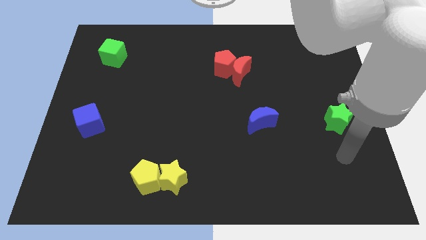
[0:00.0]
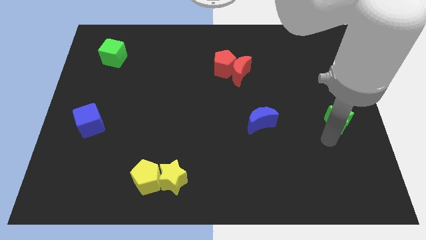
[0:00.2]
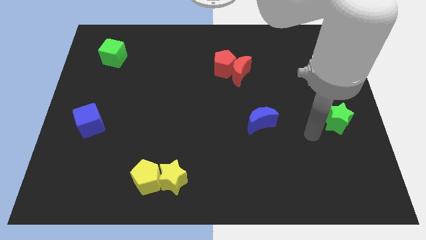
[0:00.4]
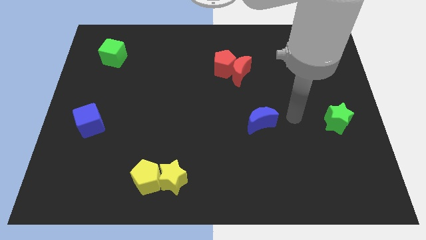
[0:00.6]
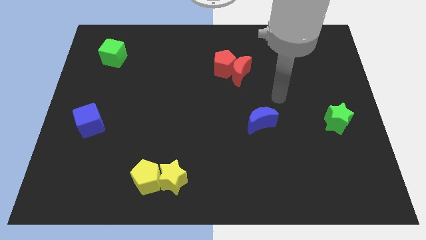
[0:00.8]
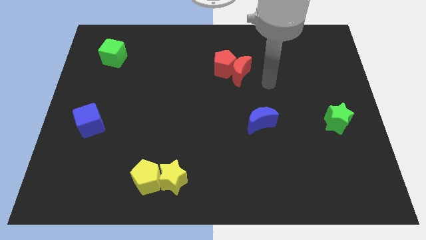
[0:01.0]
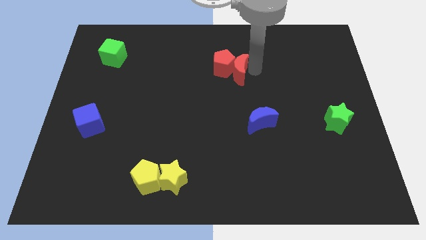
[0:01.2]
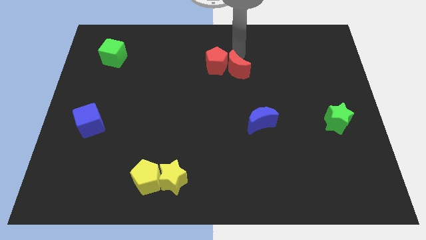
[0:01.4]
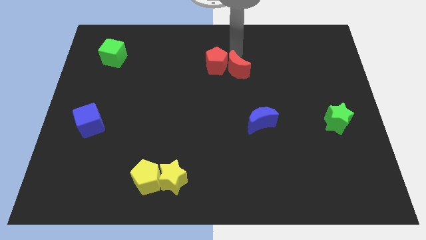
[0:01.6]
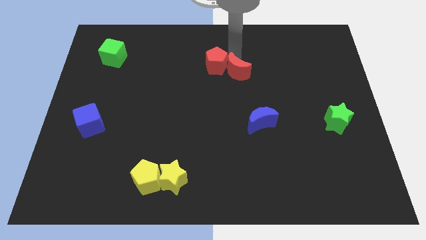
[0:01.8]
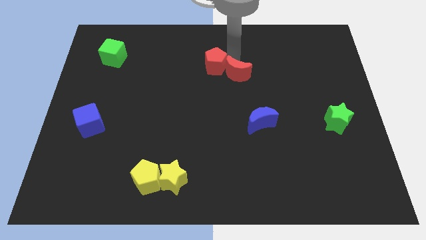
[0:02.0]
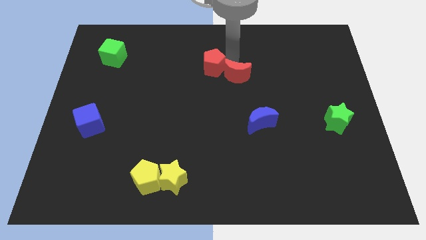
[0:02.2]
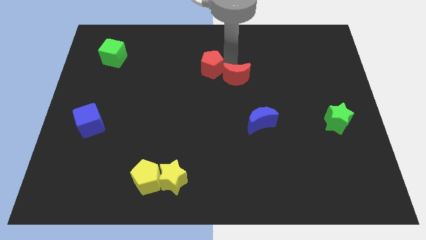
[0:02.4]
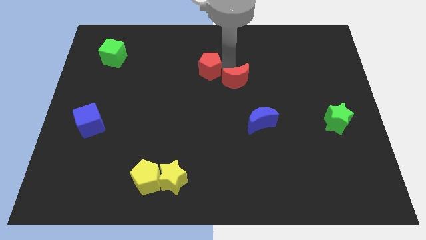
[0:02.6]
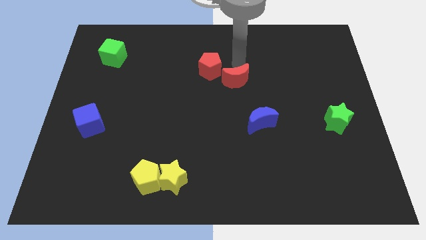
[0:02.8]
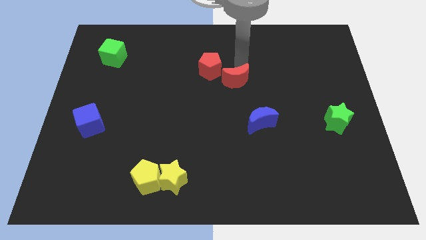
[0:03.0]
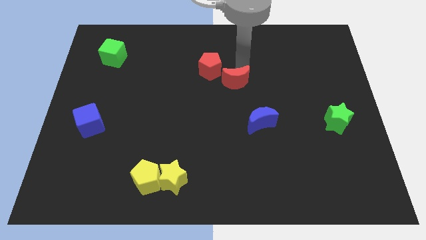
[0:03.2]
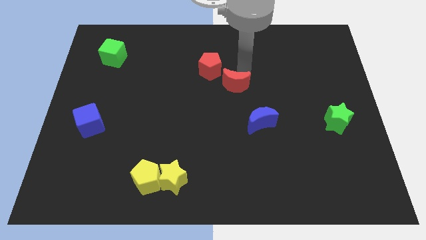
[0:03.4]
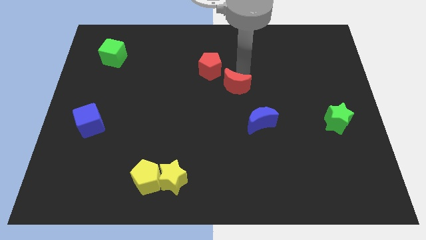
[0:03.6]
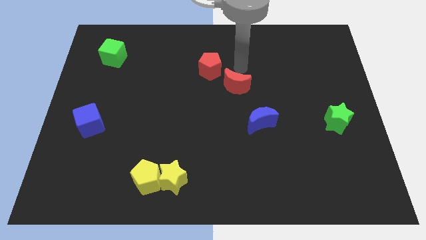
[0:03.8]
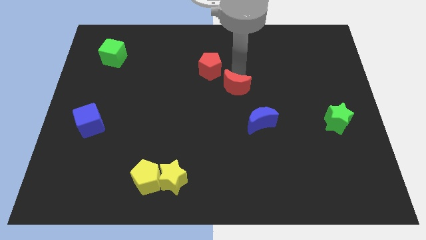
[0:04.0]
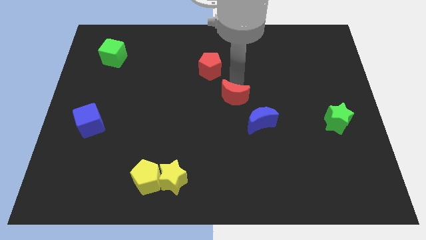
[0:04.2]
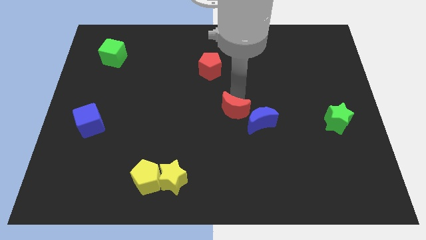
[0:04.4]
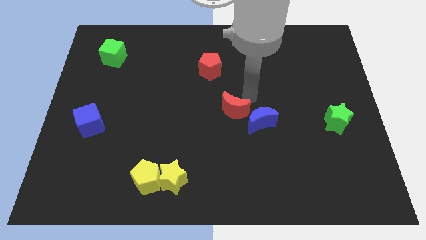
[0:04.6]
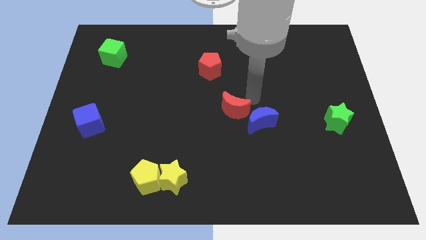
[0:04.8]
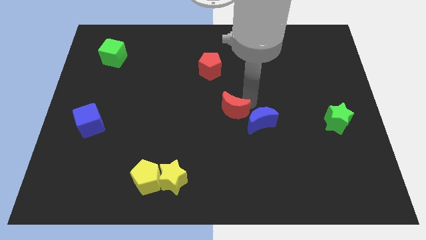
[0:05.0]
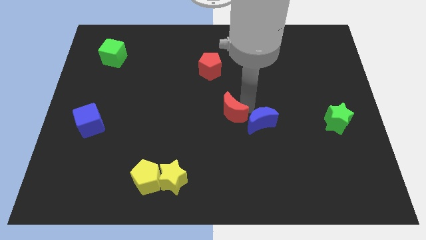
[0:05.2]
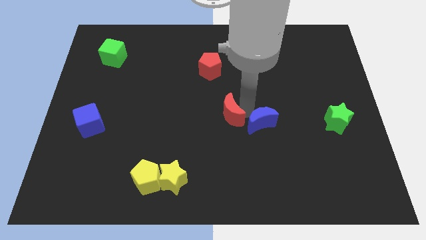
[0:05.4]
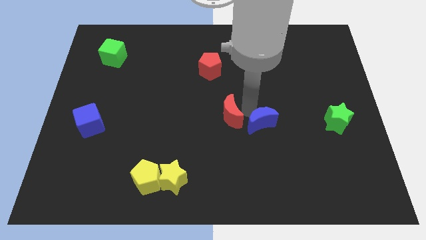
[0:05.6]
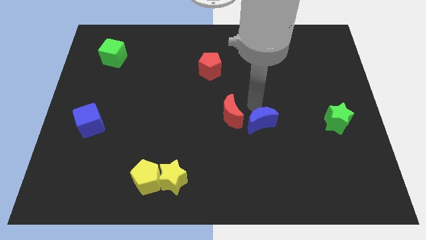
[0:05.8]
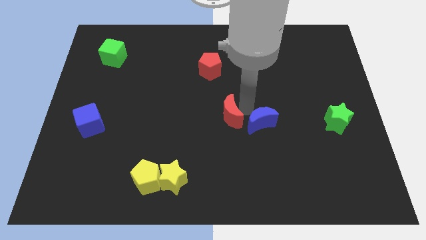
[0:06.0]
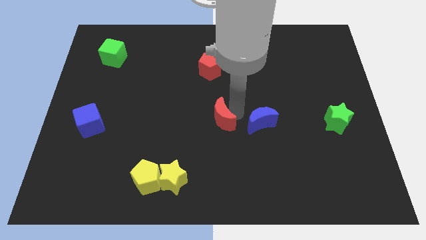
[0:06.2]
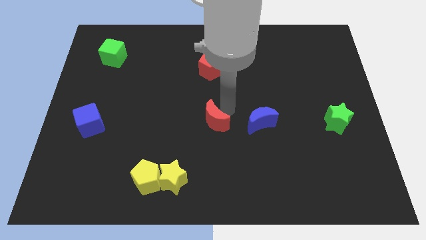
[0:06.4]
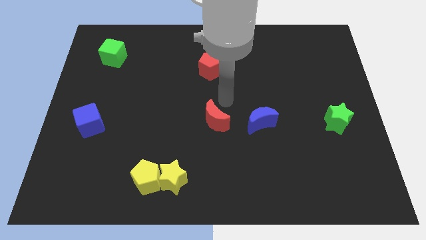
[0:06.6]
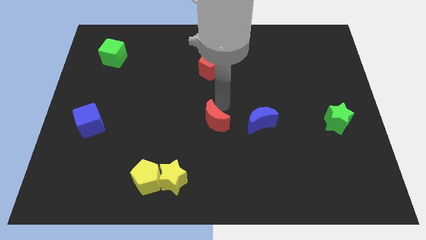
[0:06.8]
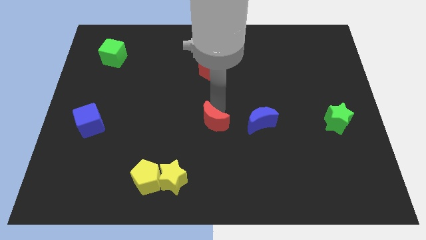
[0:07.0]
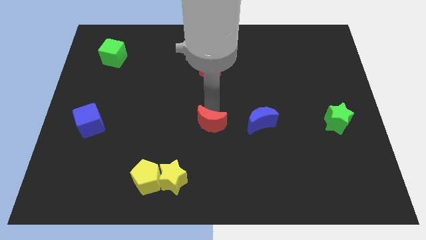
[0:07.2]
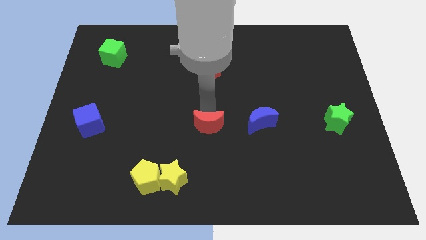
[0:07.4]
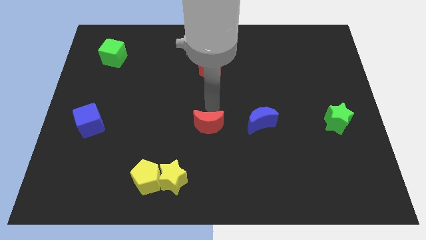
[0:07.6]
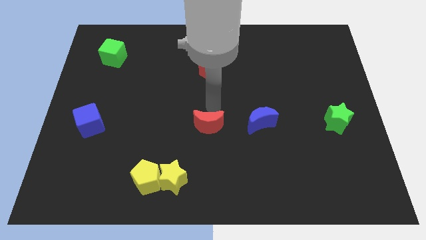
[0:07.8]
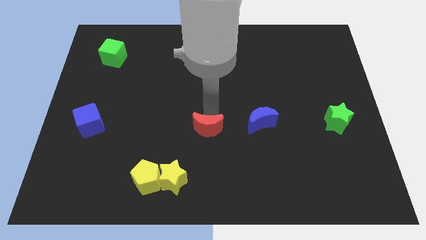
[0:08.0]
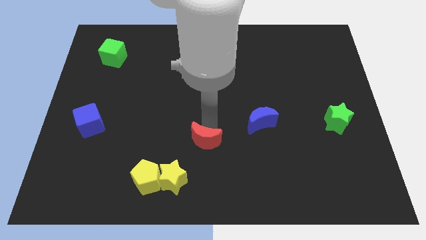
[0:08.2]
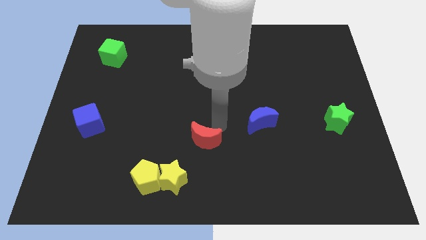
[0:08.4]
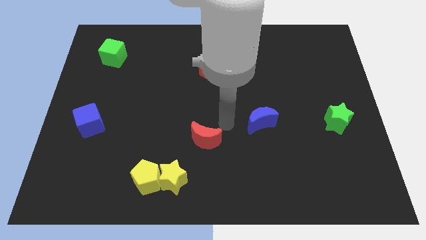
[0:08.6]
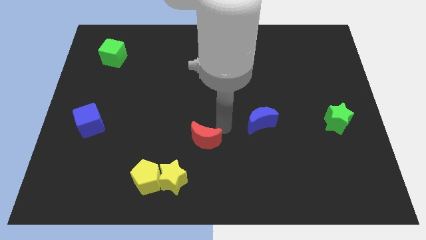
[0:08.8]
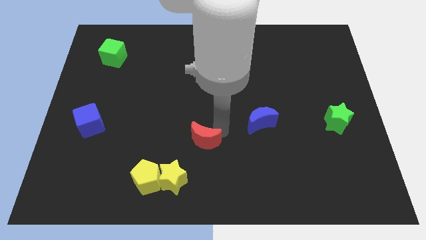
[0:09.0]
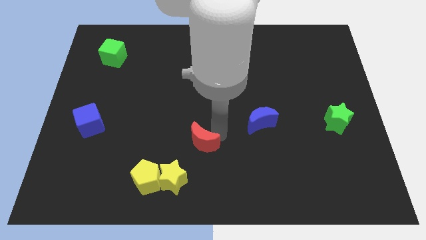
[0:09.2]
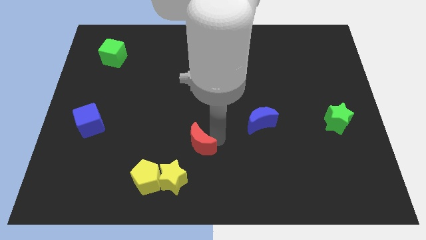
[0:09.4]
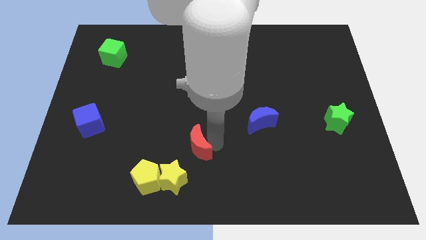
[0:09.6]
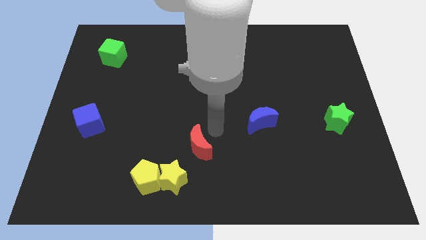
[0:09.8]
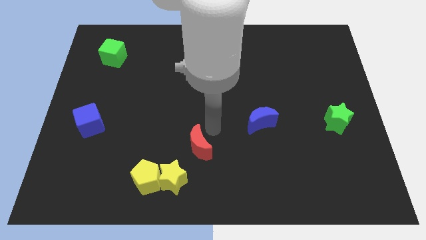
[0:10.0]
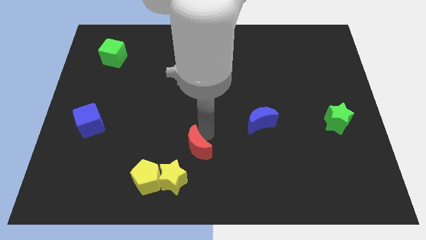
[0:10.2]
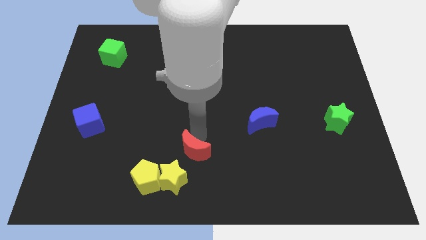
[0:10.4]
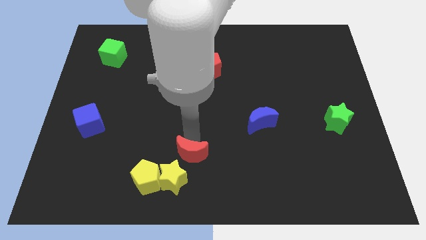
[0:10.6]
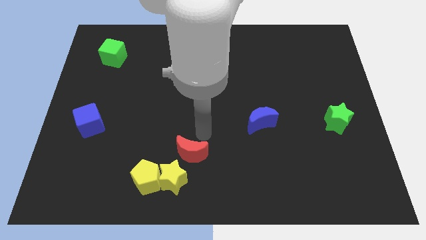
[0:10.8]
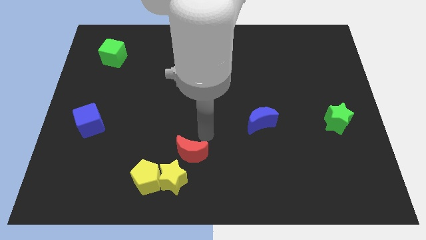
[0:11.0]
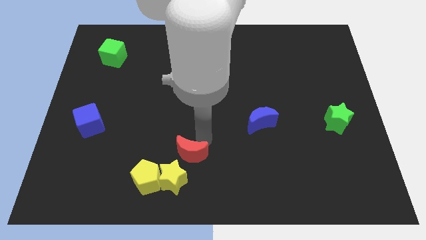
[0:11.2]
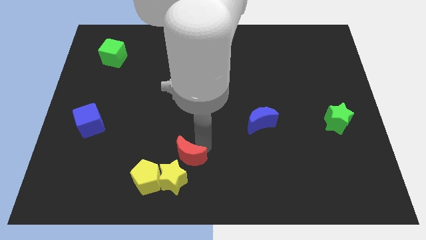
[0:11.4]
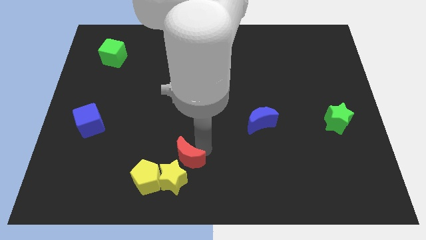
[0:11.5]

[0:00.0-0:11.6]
push the red moon towards the yellow star

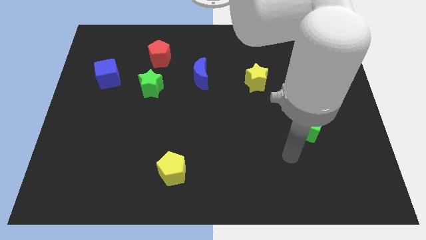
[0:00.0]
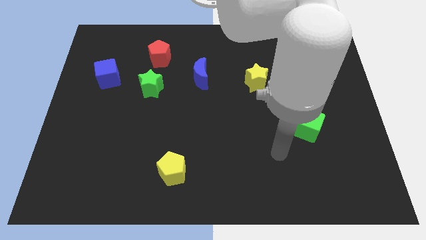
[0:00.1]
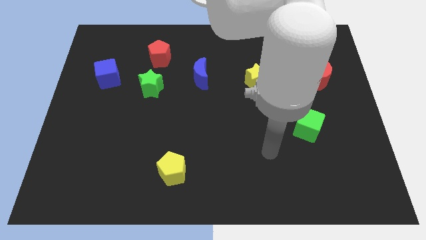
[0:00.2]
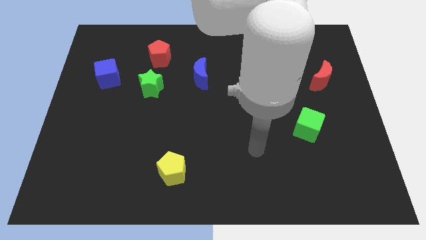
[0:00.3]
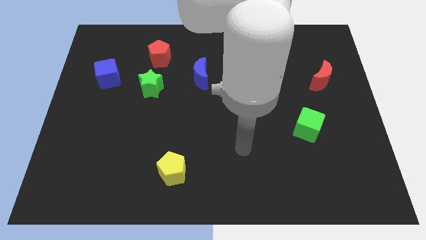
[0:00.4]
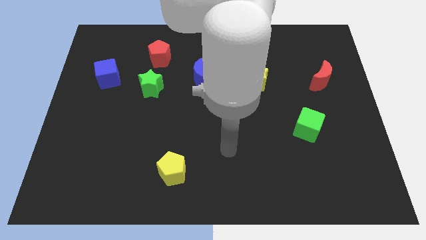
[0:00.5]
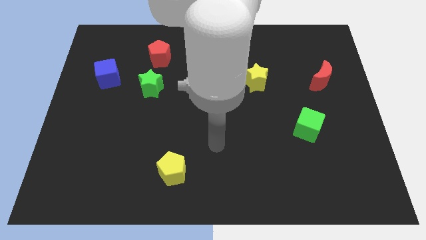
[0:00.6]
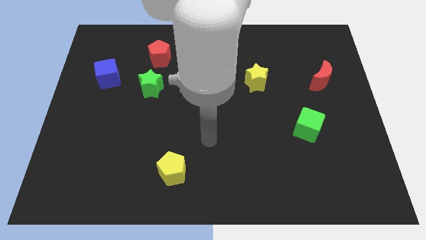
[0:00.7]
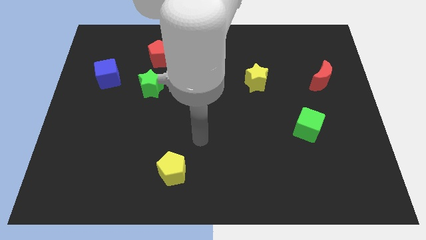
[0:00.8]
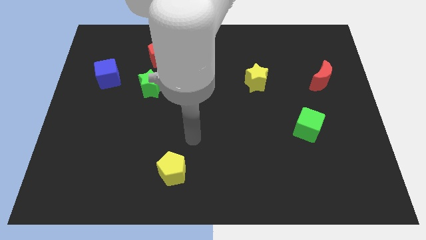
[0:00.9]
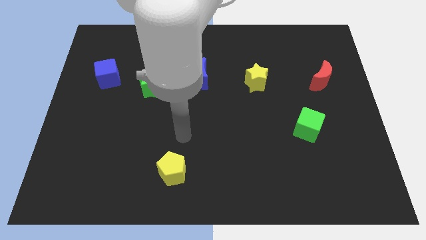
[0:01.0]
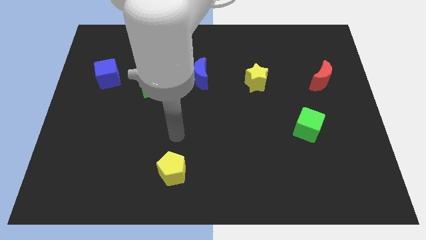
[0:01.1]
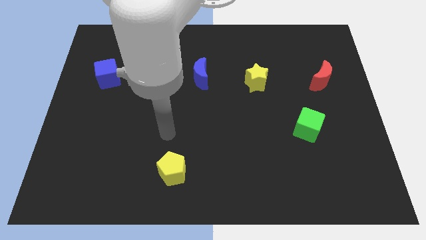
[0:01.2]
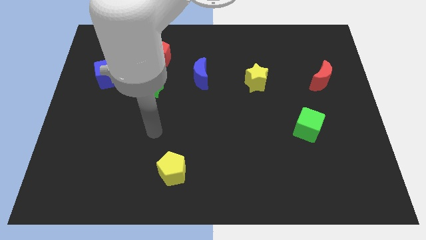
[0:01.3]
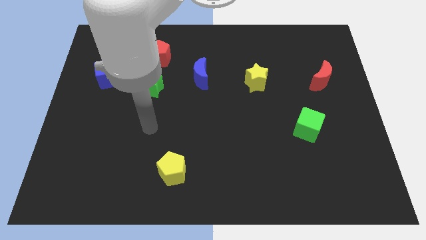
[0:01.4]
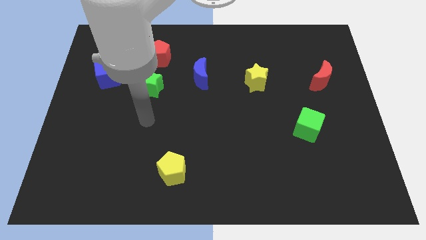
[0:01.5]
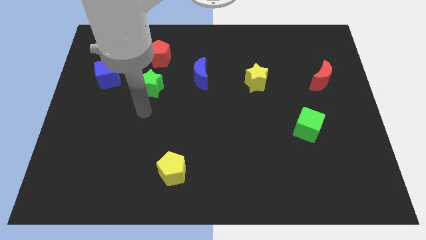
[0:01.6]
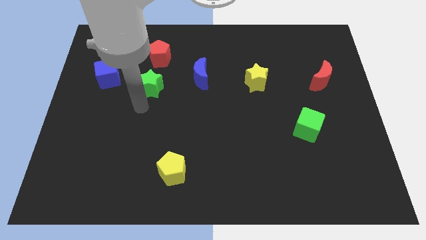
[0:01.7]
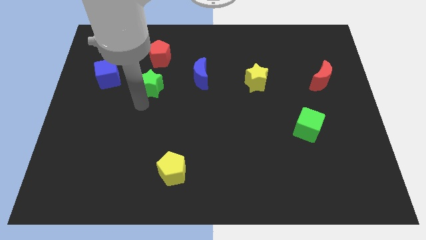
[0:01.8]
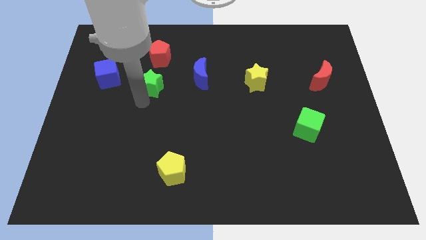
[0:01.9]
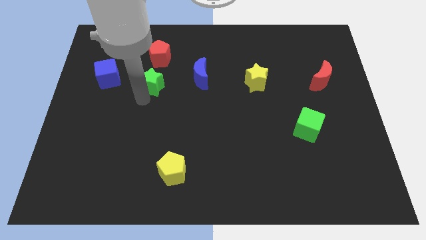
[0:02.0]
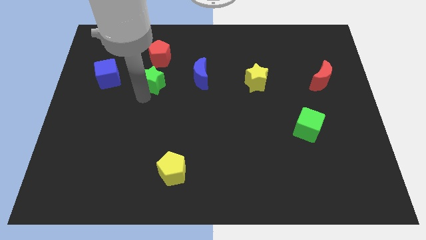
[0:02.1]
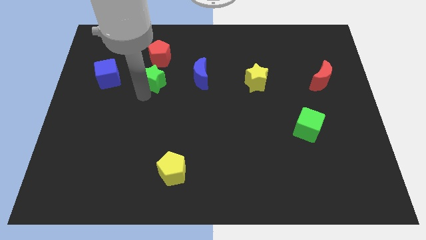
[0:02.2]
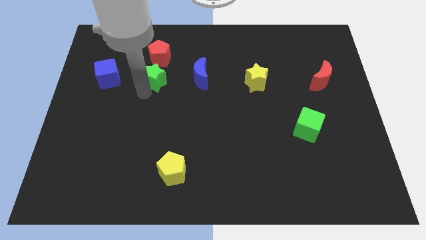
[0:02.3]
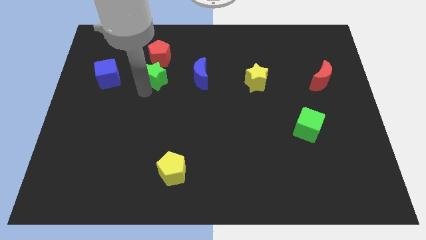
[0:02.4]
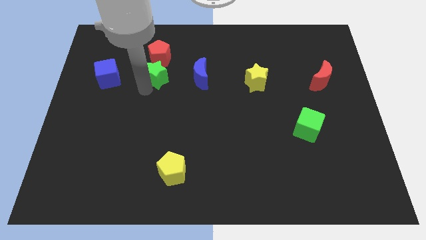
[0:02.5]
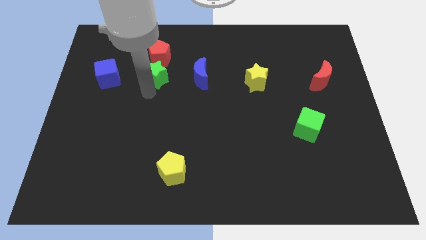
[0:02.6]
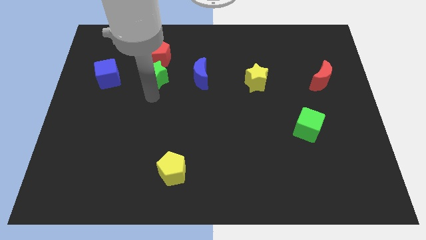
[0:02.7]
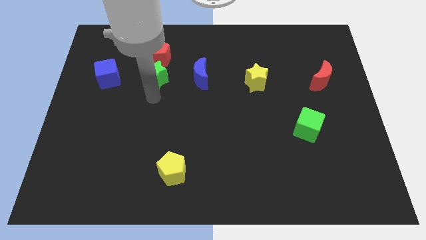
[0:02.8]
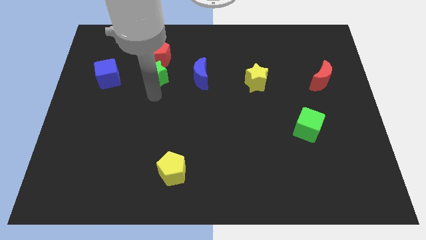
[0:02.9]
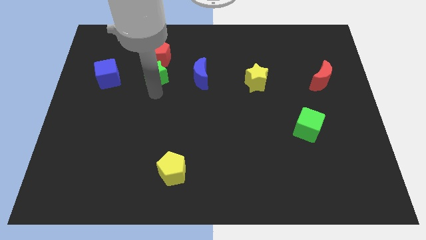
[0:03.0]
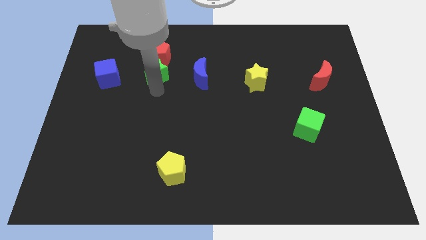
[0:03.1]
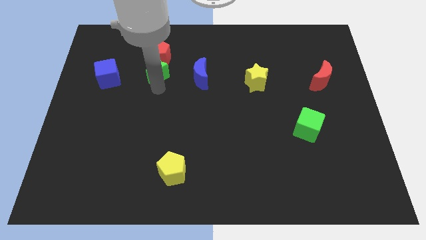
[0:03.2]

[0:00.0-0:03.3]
push the green star close to the red pentagon
